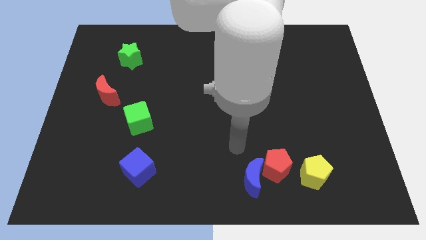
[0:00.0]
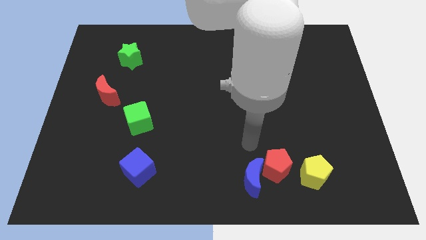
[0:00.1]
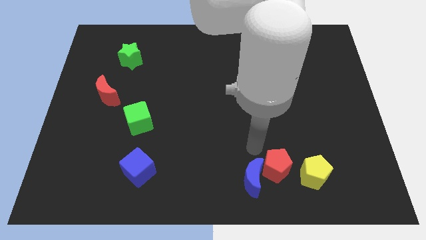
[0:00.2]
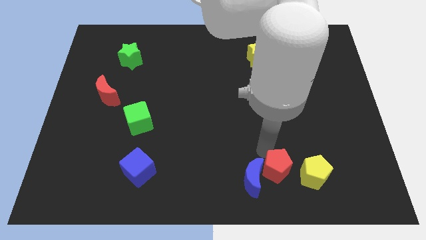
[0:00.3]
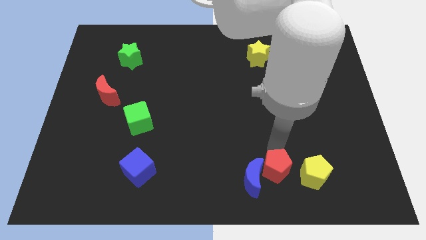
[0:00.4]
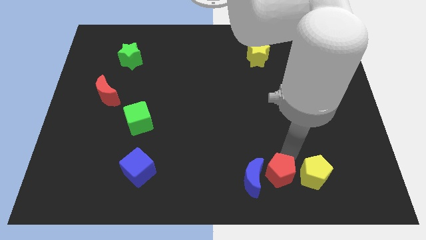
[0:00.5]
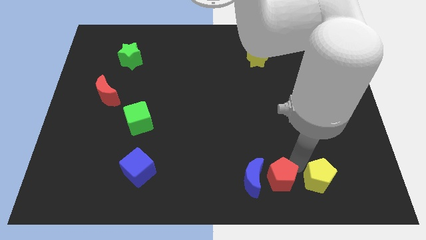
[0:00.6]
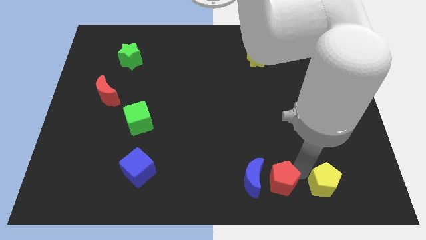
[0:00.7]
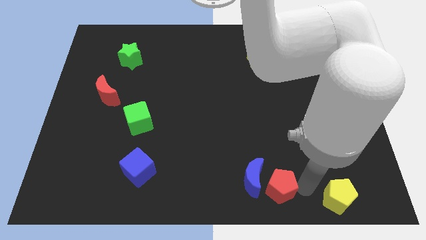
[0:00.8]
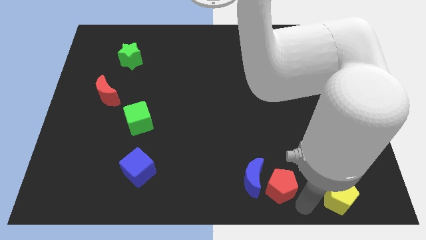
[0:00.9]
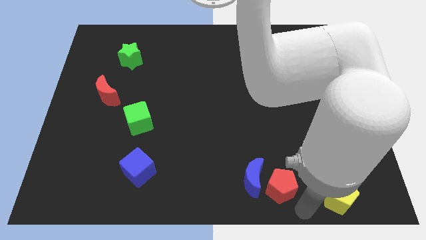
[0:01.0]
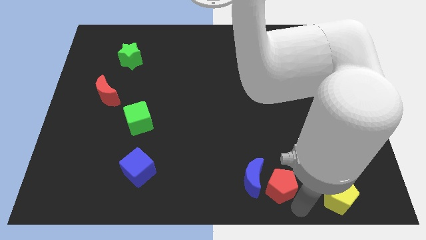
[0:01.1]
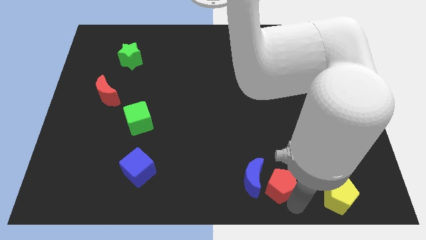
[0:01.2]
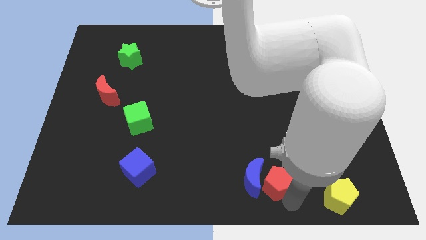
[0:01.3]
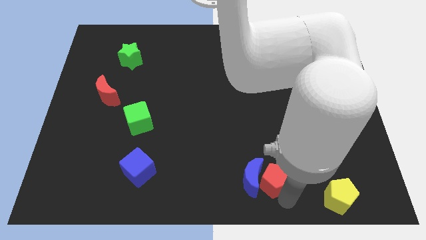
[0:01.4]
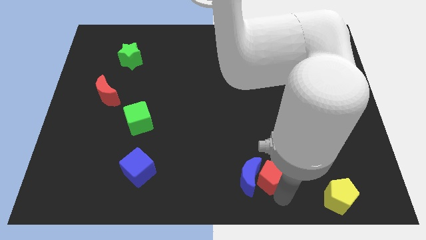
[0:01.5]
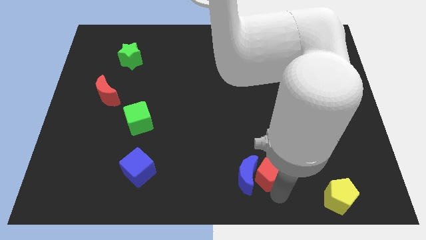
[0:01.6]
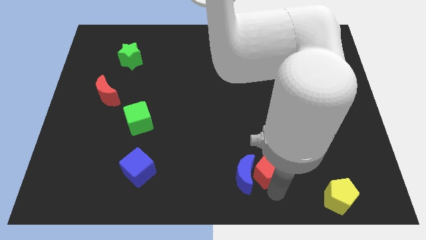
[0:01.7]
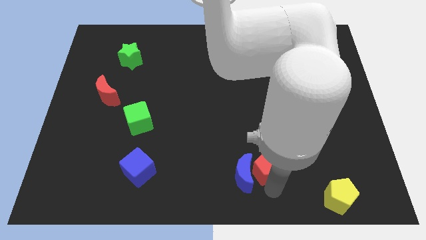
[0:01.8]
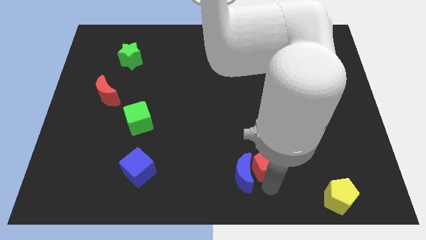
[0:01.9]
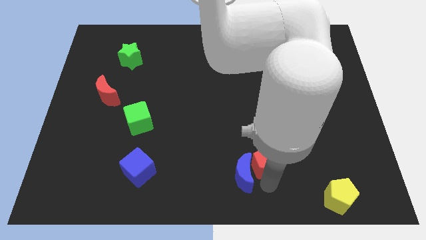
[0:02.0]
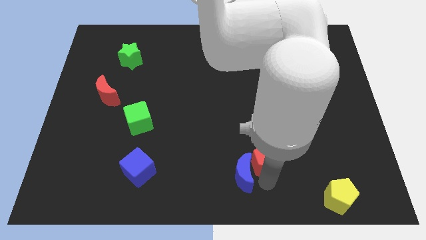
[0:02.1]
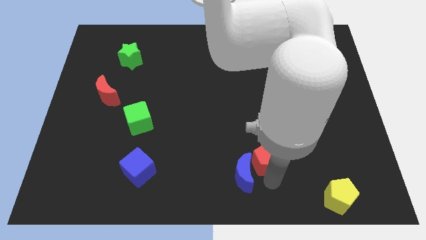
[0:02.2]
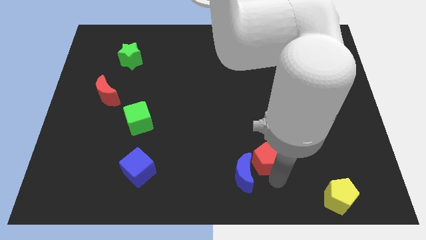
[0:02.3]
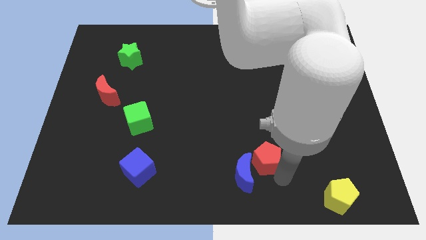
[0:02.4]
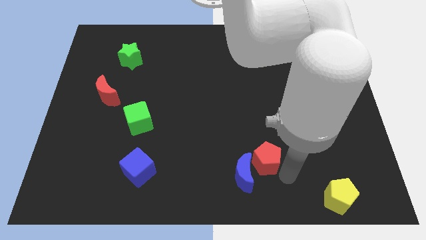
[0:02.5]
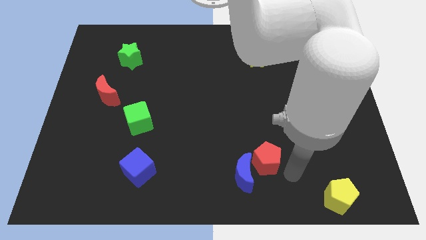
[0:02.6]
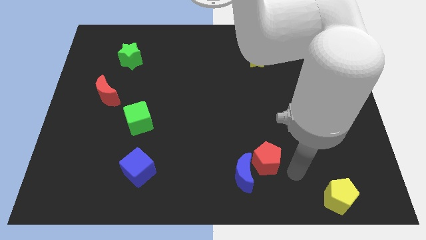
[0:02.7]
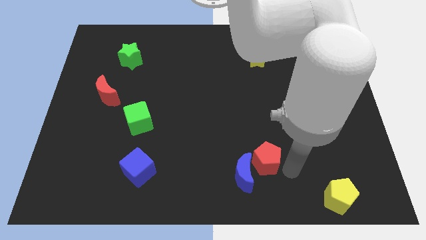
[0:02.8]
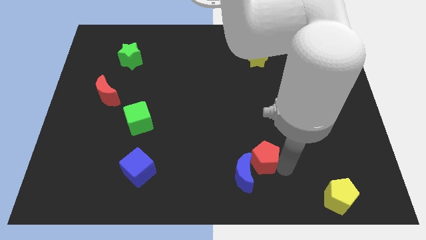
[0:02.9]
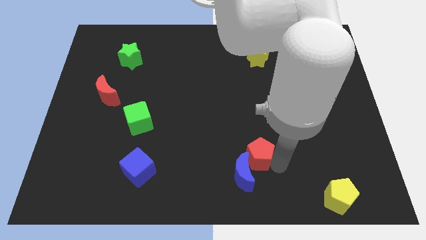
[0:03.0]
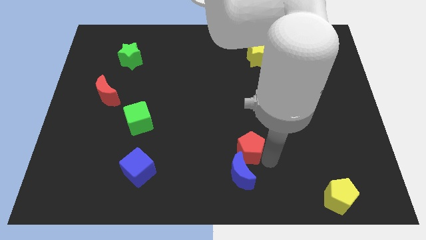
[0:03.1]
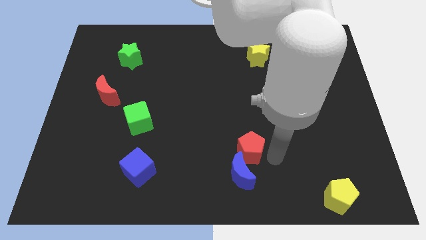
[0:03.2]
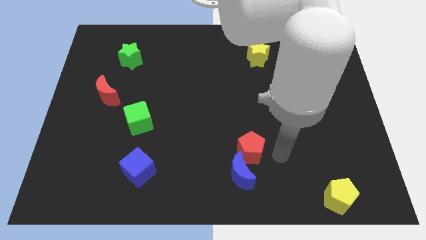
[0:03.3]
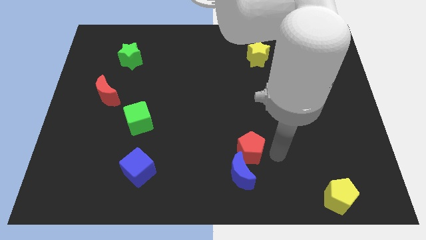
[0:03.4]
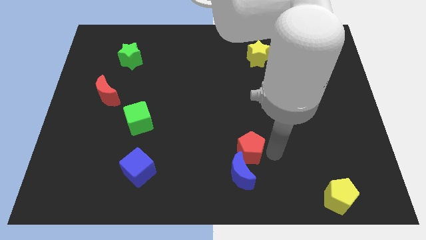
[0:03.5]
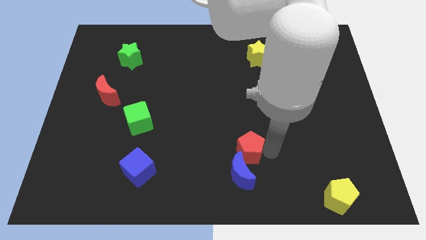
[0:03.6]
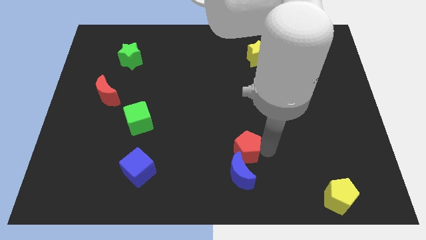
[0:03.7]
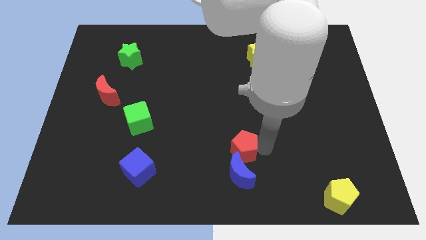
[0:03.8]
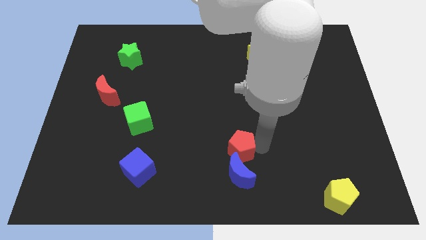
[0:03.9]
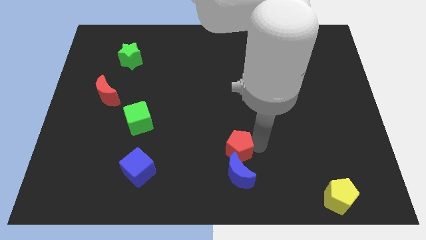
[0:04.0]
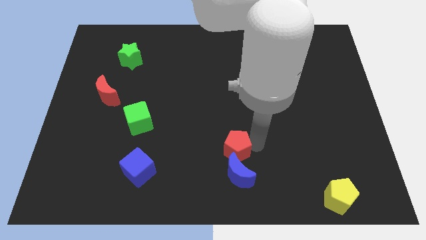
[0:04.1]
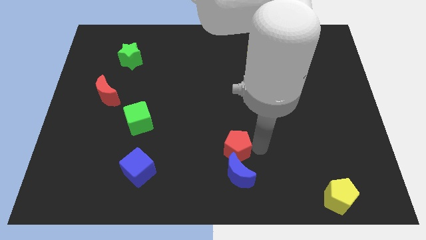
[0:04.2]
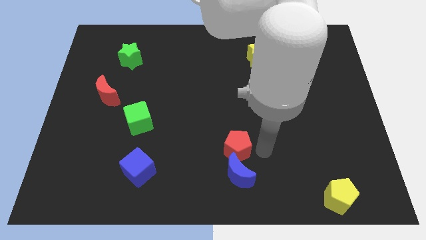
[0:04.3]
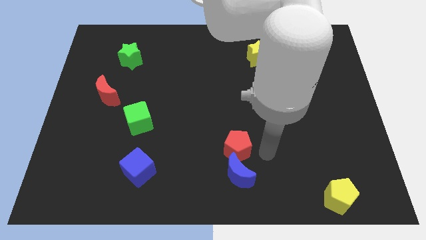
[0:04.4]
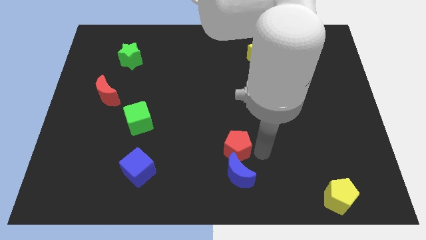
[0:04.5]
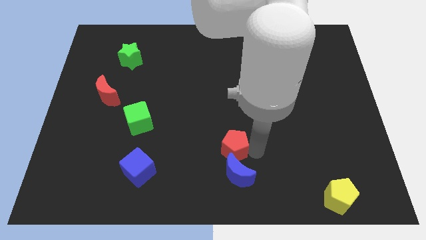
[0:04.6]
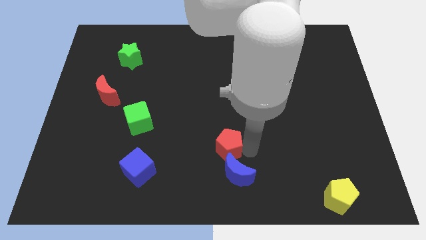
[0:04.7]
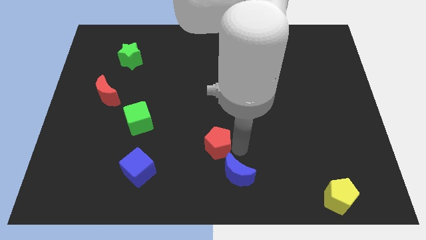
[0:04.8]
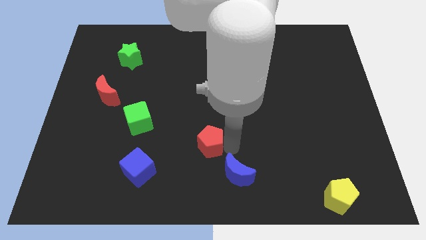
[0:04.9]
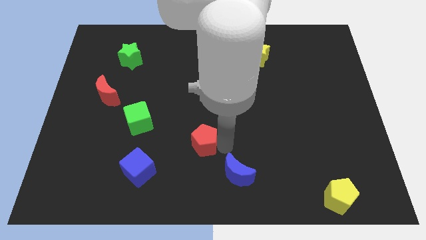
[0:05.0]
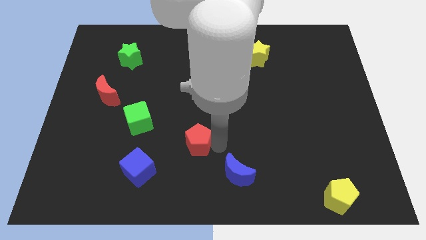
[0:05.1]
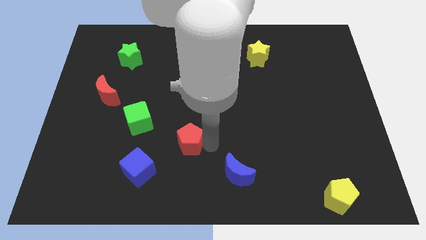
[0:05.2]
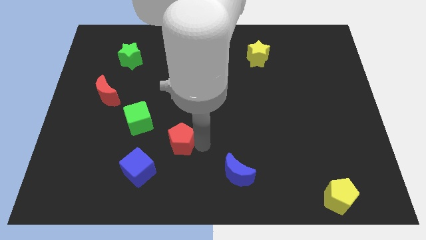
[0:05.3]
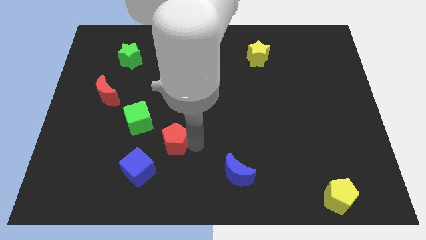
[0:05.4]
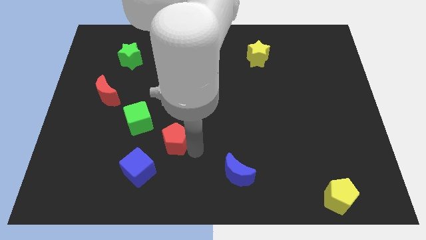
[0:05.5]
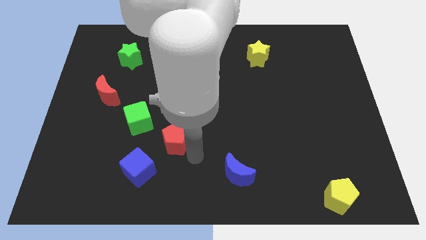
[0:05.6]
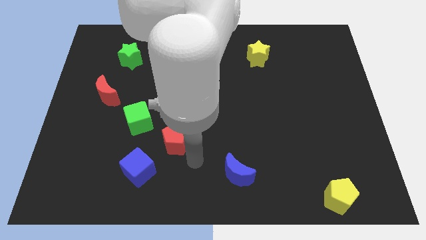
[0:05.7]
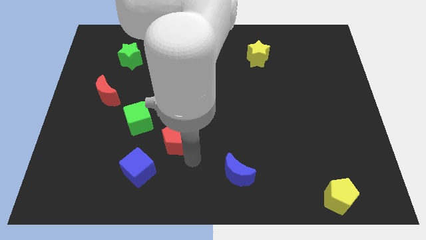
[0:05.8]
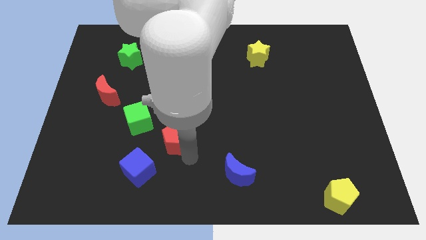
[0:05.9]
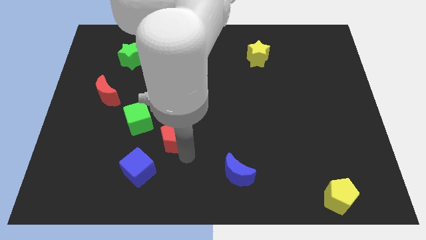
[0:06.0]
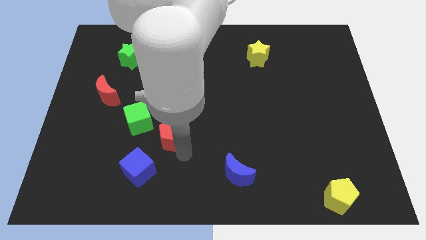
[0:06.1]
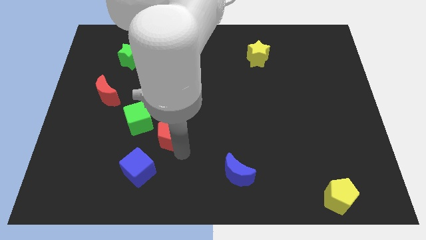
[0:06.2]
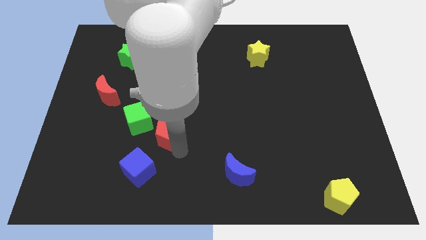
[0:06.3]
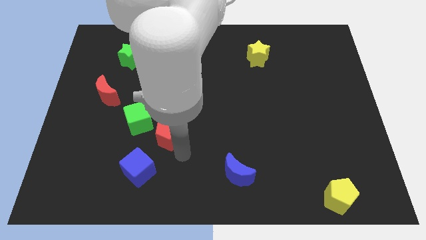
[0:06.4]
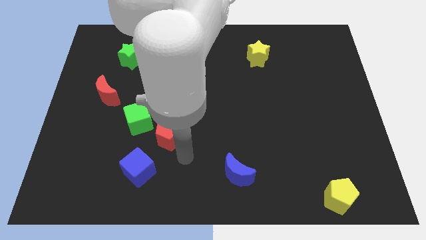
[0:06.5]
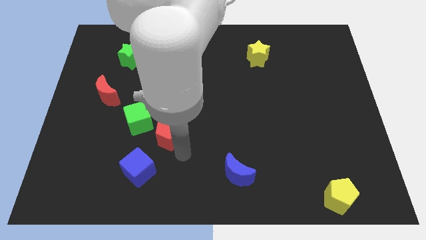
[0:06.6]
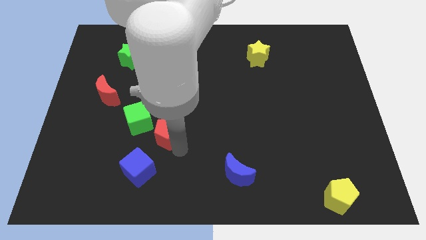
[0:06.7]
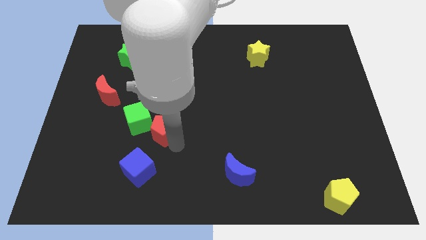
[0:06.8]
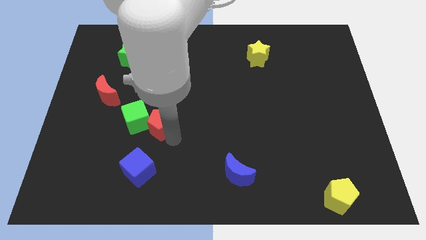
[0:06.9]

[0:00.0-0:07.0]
move the red pentagon next to the green cube
